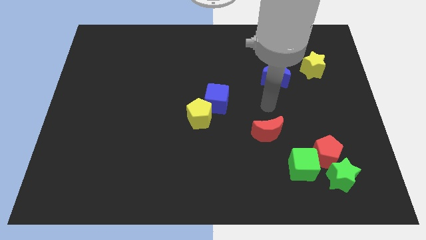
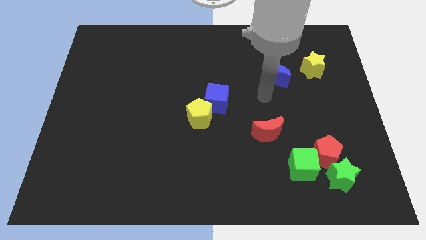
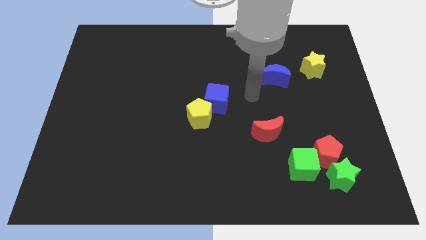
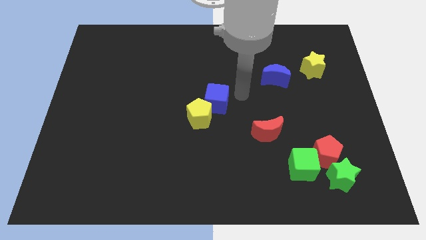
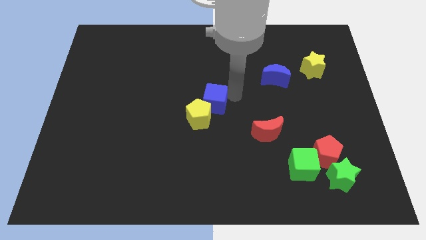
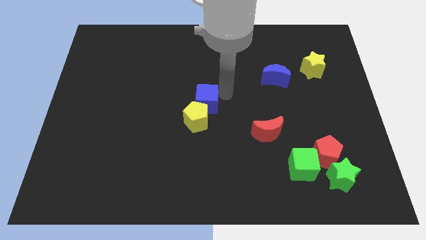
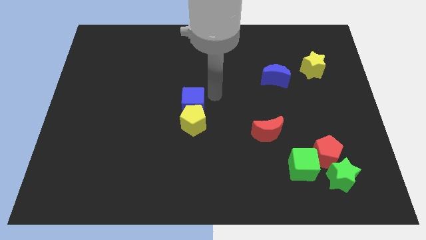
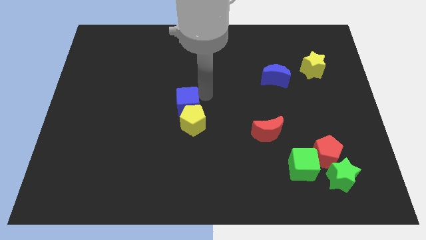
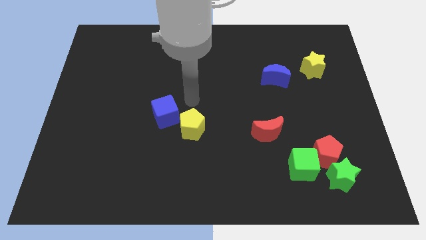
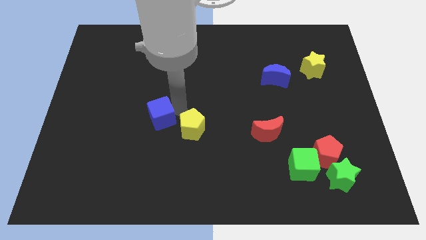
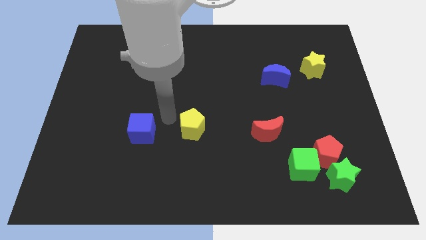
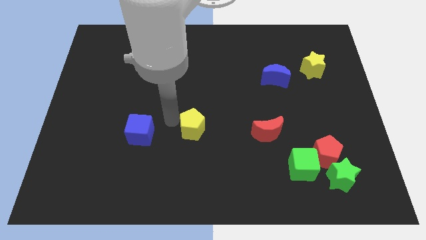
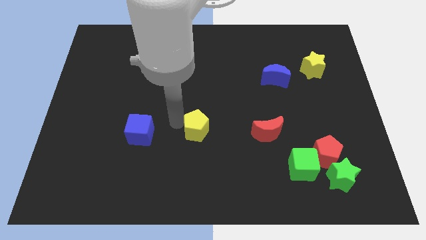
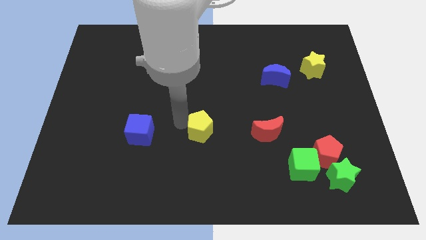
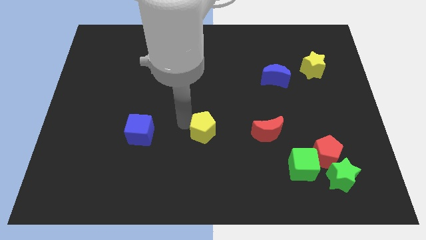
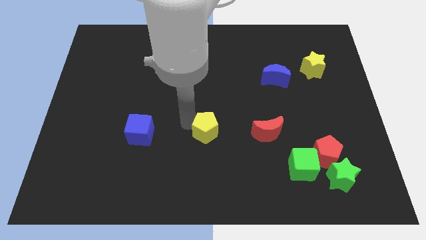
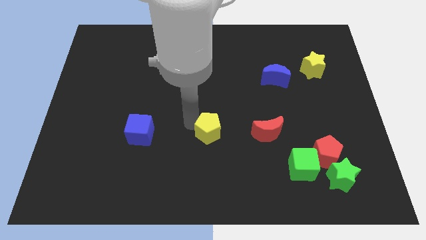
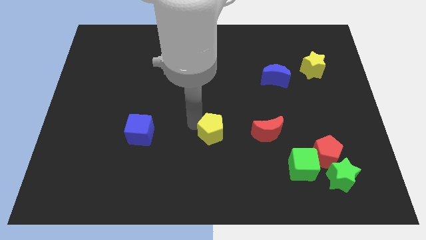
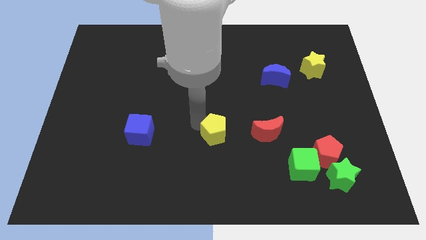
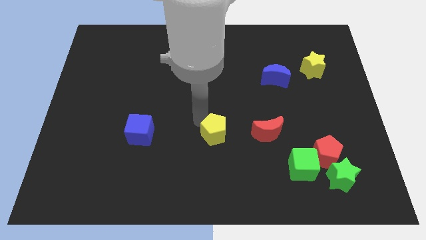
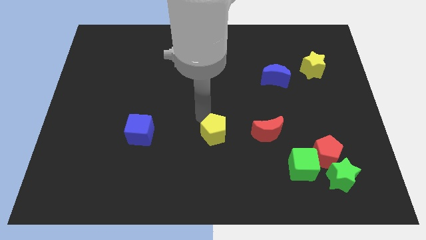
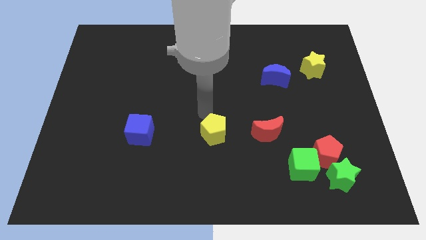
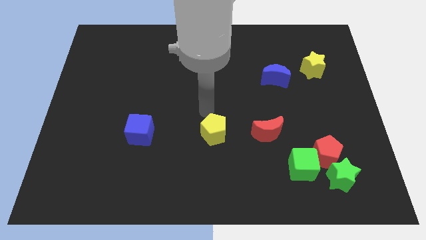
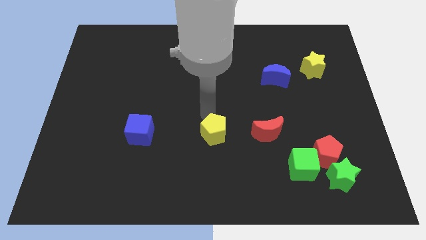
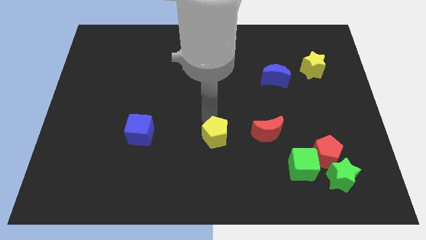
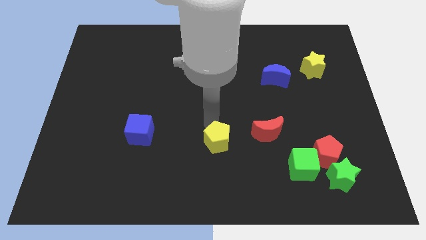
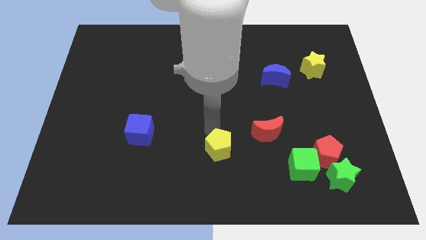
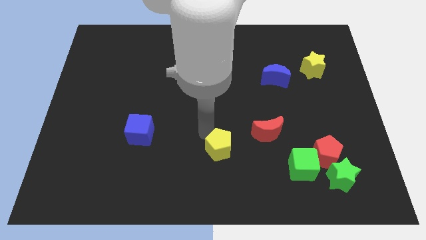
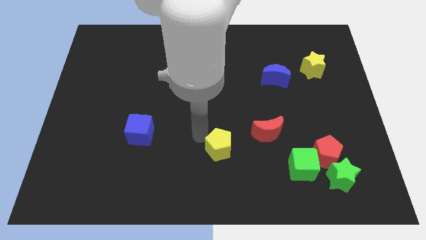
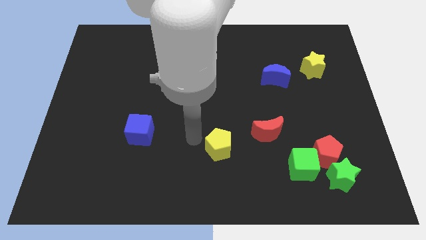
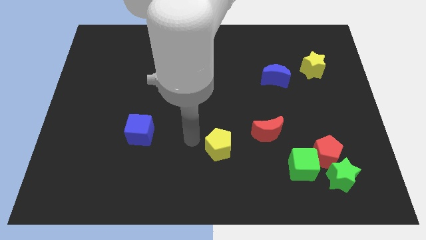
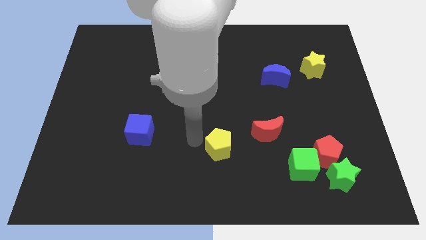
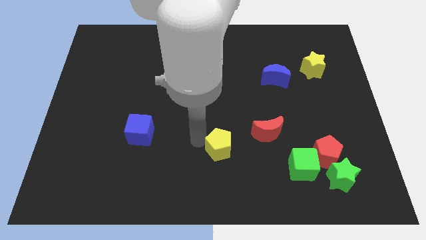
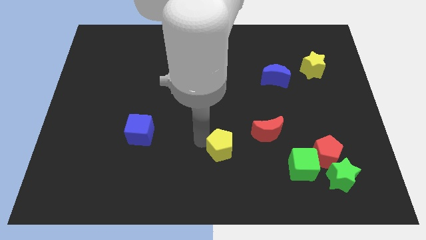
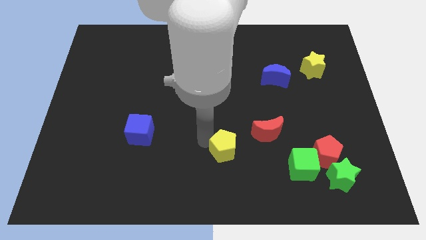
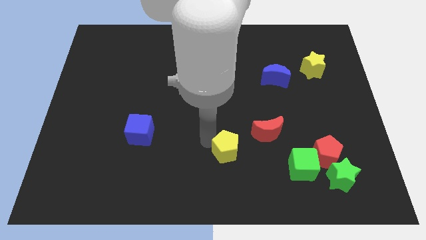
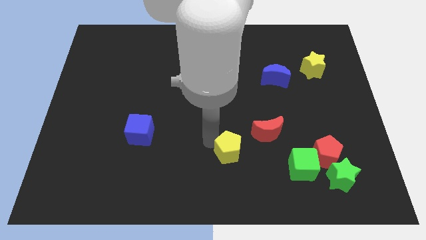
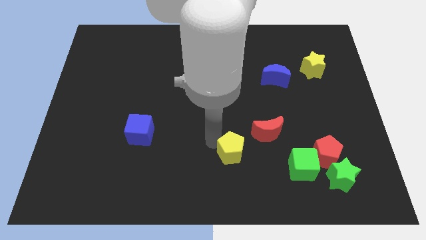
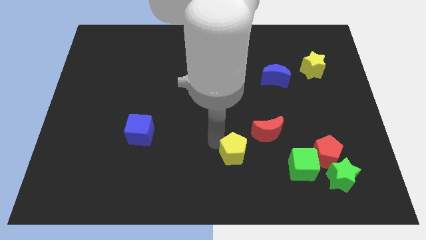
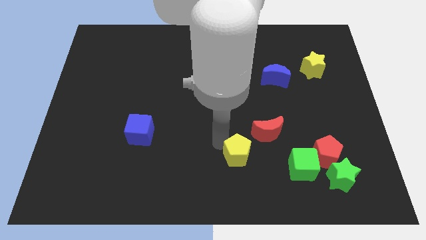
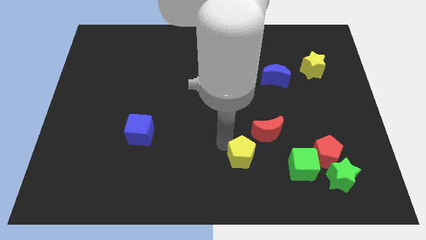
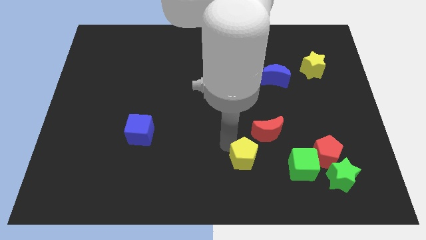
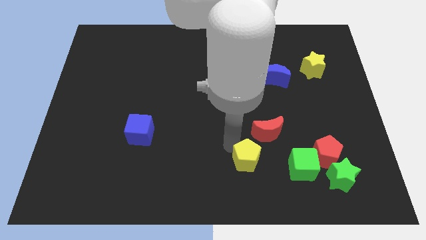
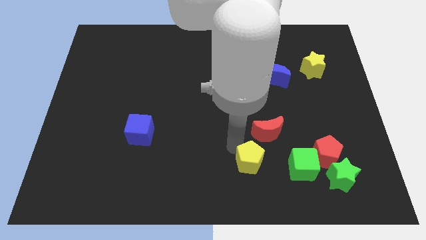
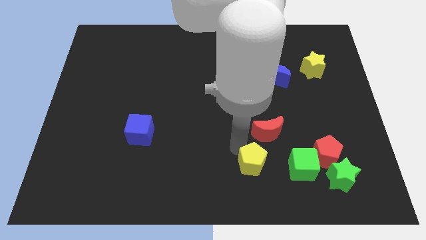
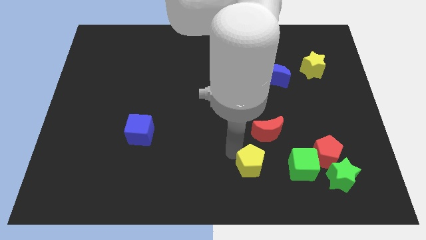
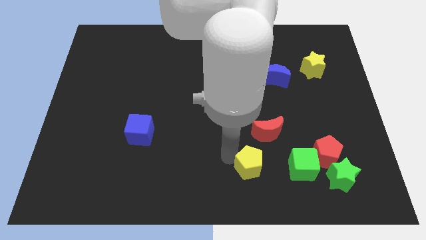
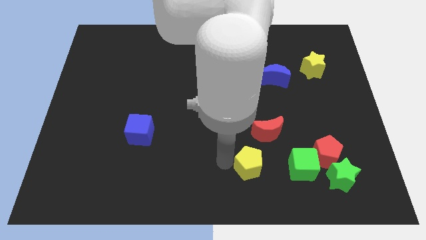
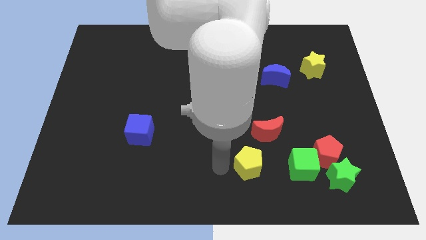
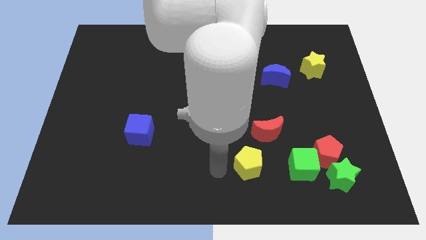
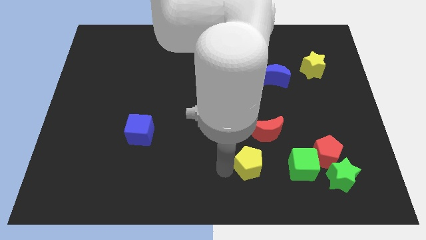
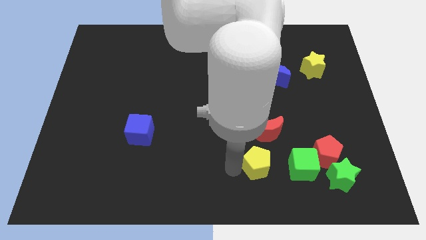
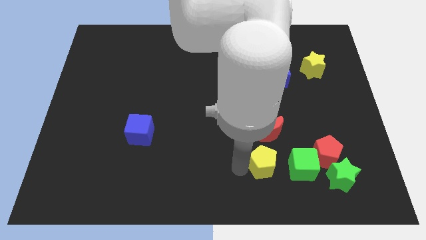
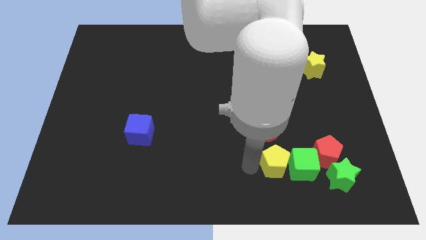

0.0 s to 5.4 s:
put the yellow pentagon close to the green cube
